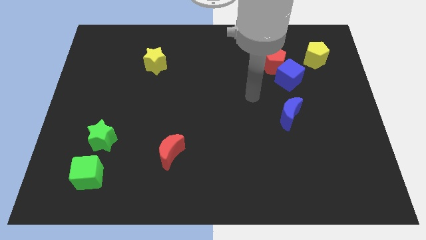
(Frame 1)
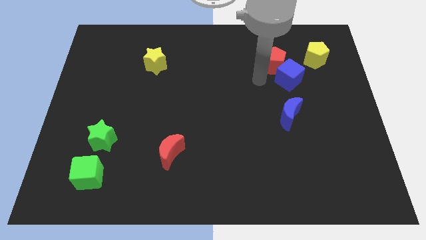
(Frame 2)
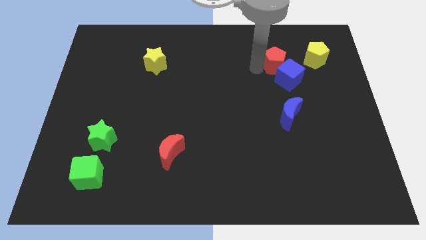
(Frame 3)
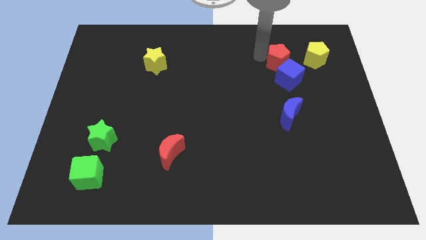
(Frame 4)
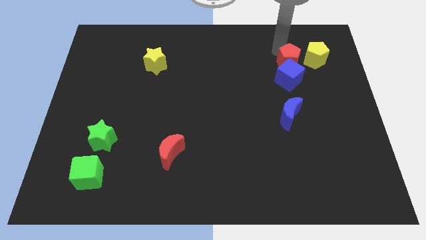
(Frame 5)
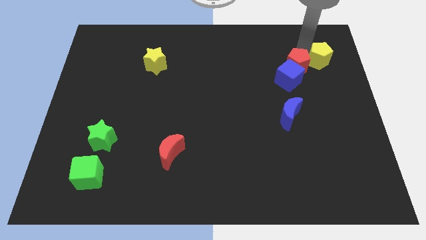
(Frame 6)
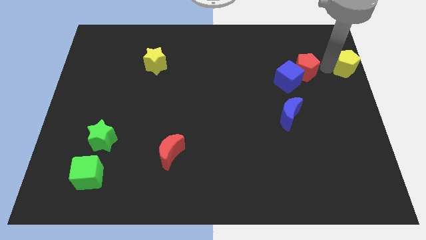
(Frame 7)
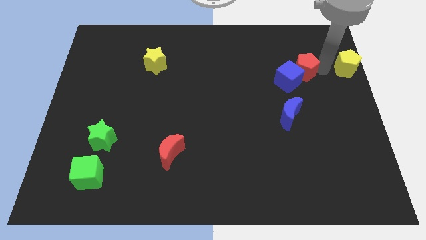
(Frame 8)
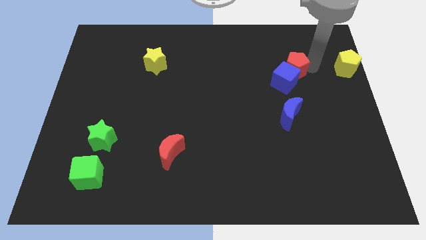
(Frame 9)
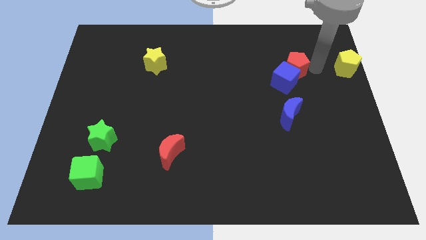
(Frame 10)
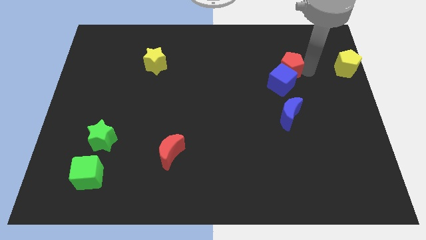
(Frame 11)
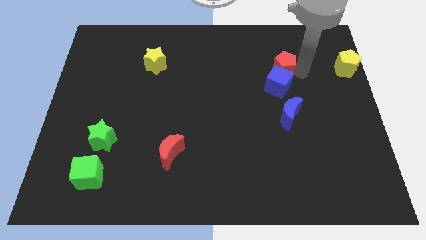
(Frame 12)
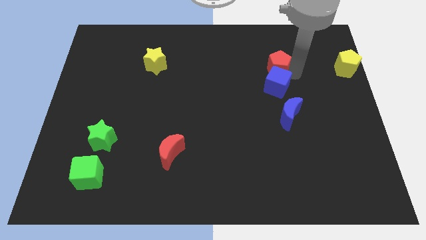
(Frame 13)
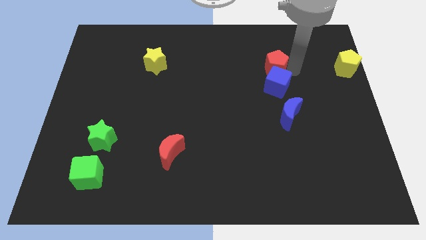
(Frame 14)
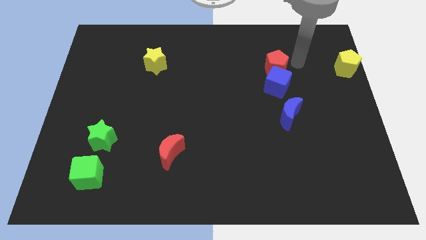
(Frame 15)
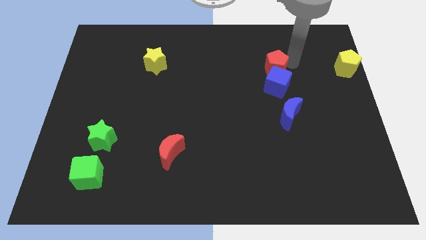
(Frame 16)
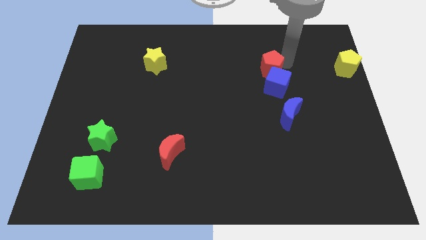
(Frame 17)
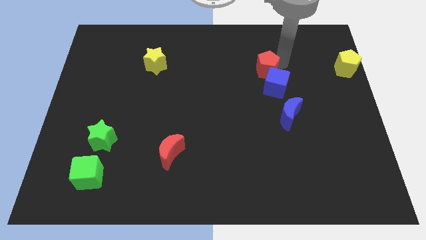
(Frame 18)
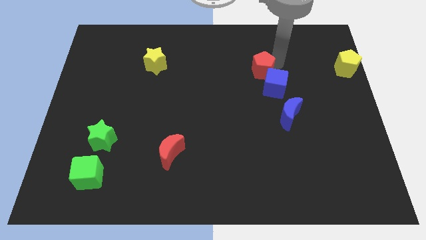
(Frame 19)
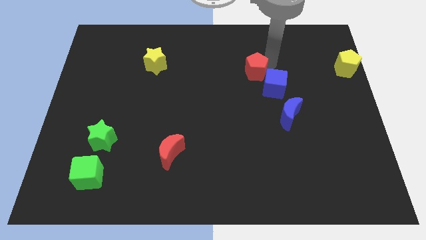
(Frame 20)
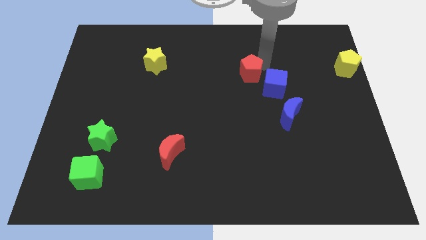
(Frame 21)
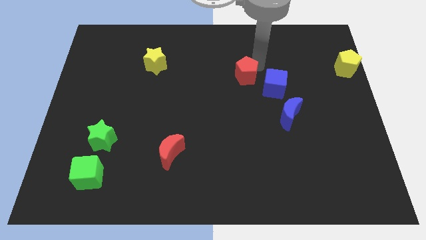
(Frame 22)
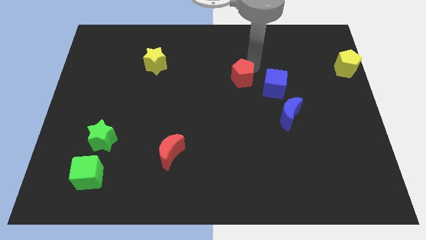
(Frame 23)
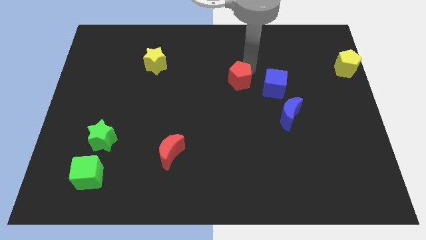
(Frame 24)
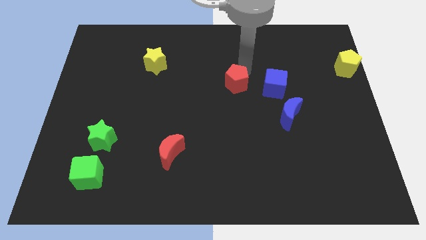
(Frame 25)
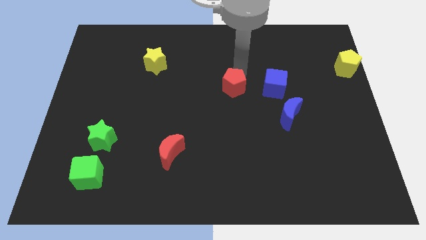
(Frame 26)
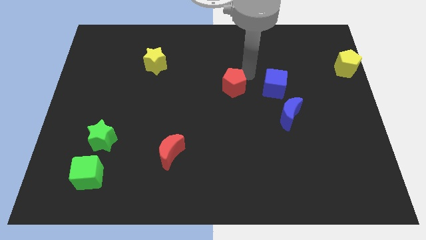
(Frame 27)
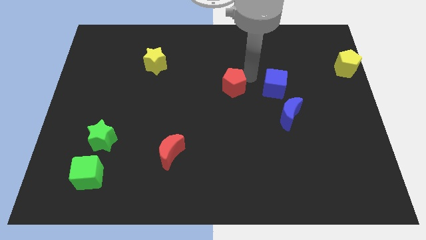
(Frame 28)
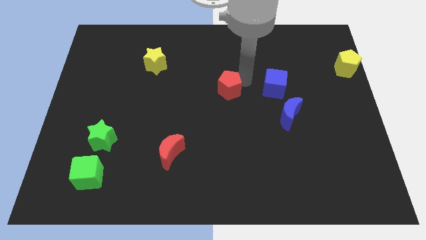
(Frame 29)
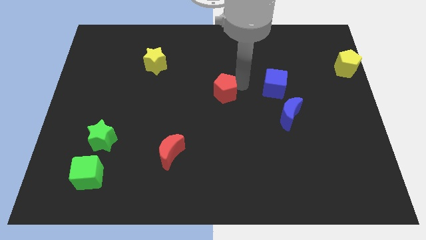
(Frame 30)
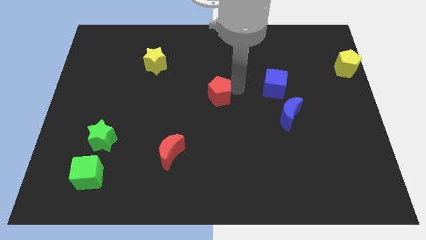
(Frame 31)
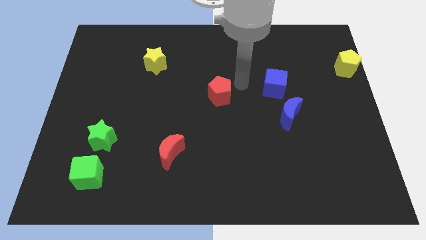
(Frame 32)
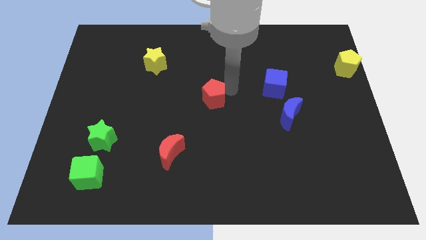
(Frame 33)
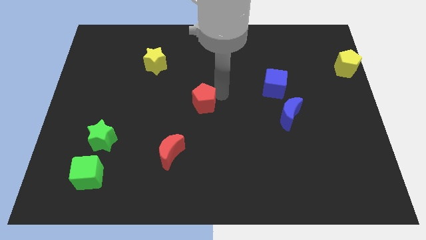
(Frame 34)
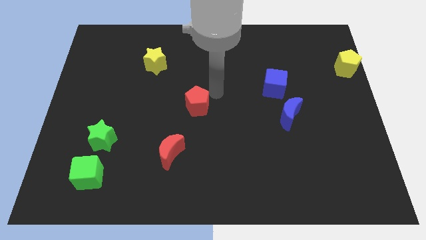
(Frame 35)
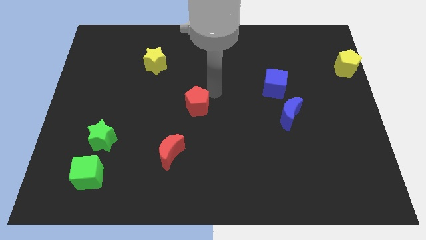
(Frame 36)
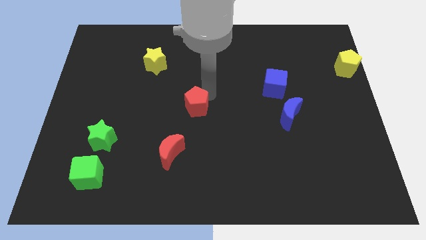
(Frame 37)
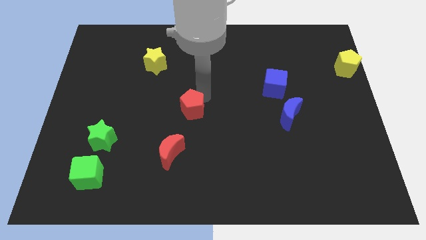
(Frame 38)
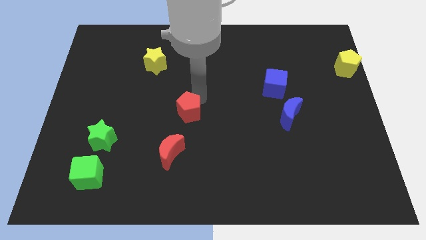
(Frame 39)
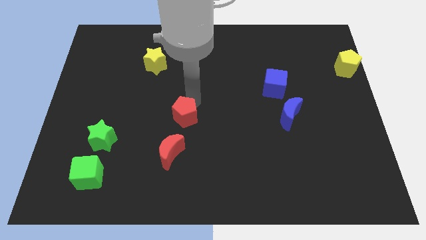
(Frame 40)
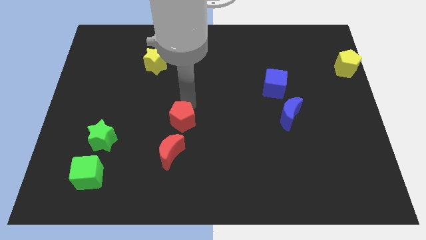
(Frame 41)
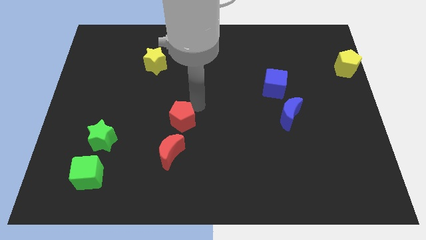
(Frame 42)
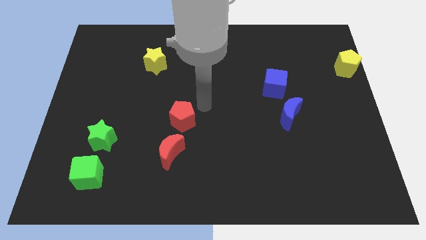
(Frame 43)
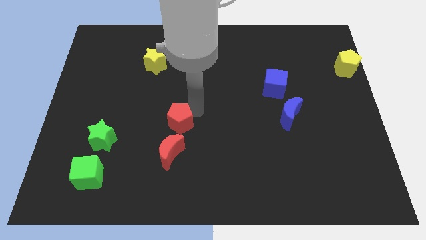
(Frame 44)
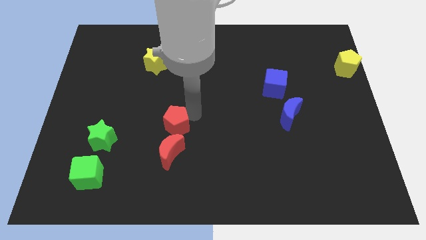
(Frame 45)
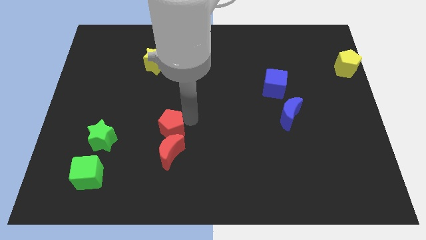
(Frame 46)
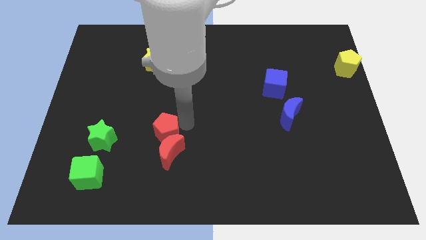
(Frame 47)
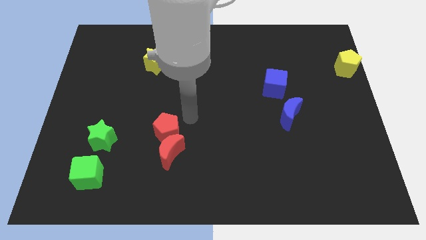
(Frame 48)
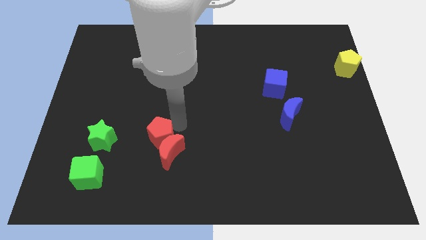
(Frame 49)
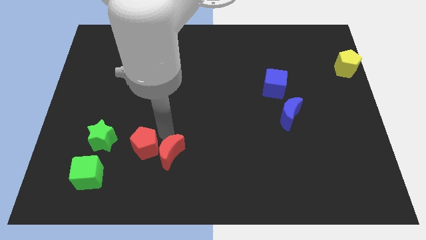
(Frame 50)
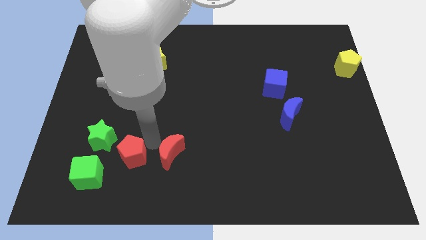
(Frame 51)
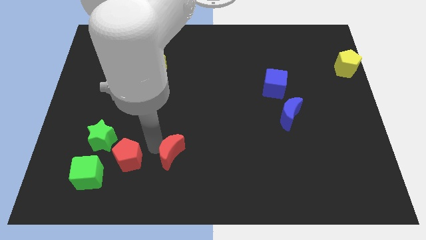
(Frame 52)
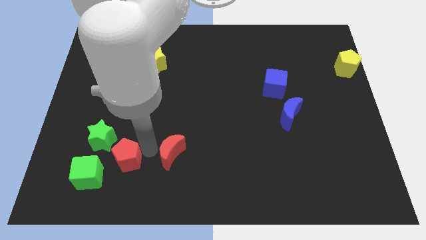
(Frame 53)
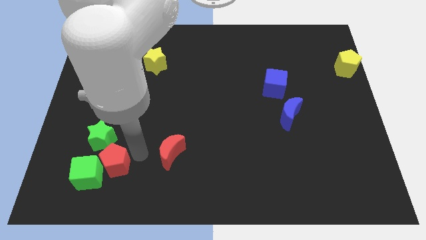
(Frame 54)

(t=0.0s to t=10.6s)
move the red pentagon to the green cube

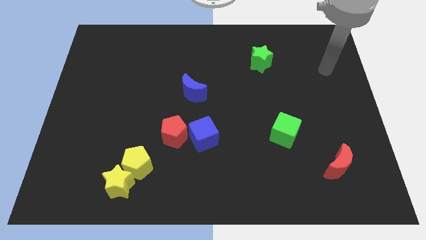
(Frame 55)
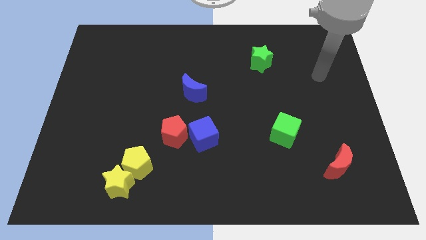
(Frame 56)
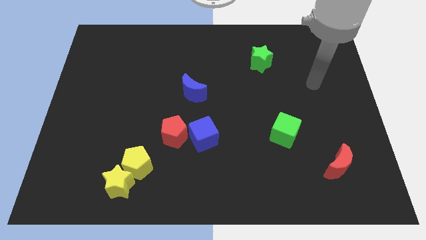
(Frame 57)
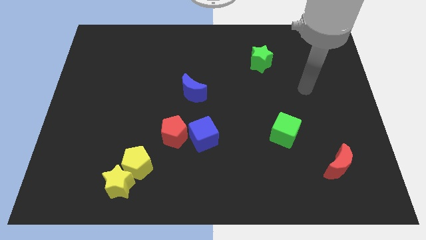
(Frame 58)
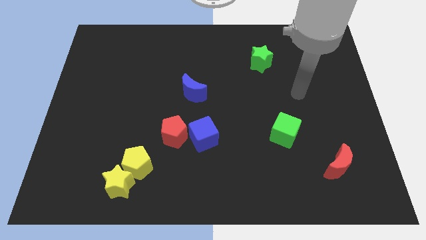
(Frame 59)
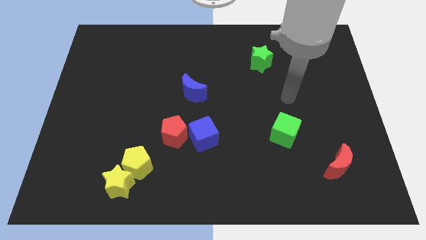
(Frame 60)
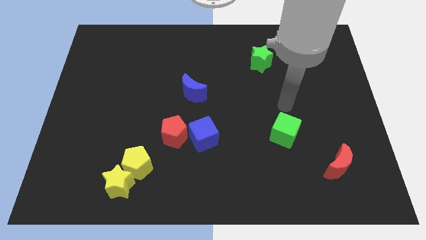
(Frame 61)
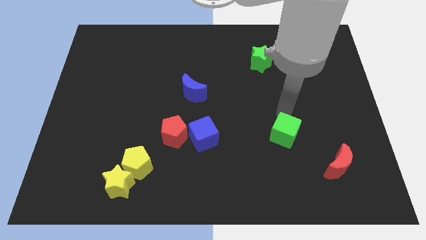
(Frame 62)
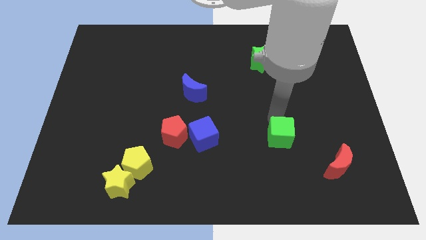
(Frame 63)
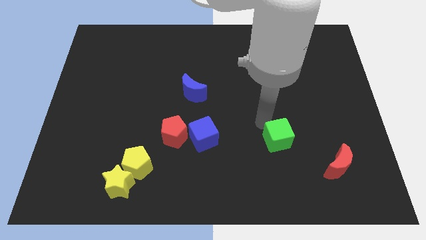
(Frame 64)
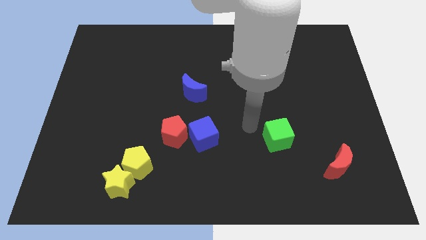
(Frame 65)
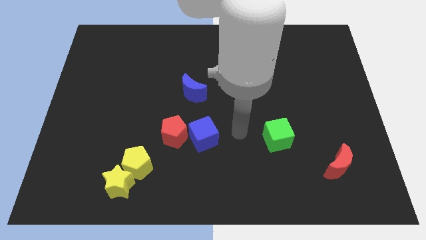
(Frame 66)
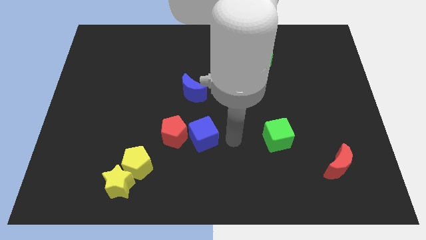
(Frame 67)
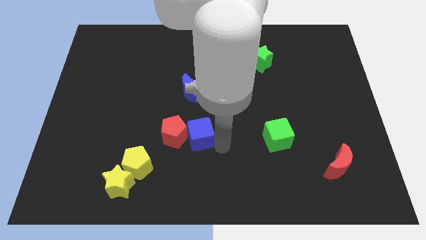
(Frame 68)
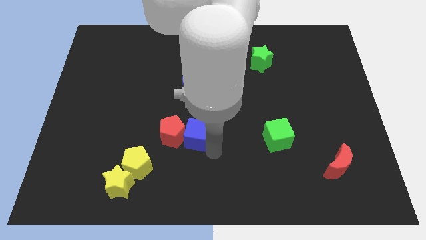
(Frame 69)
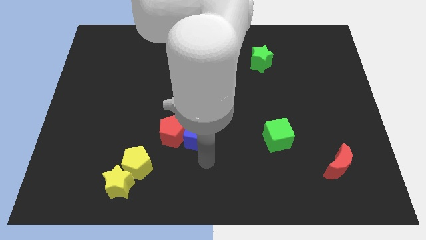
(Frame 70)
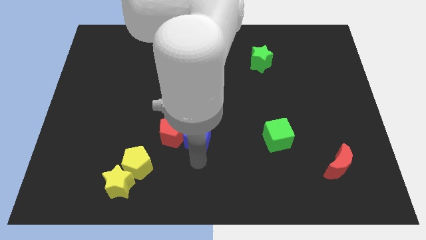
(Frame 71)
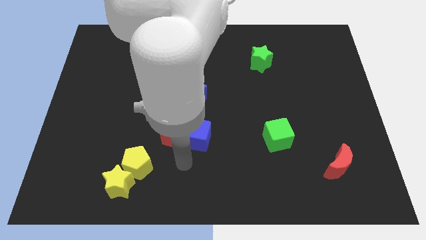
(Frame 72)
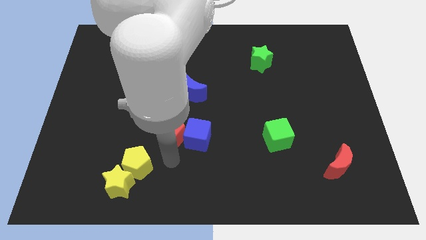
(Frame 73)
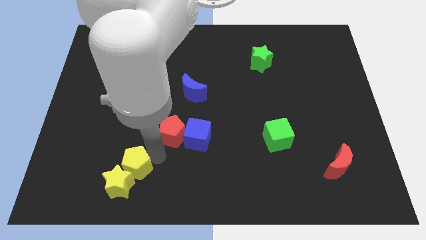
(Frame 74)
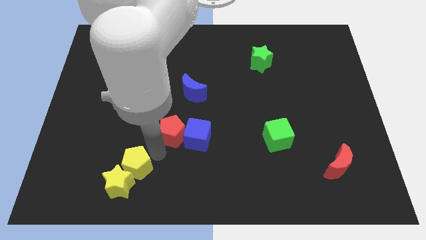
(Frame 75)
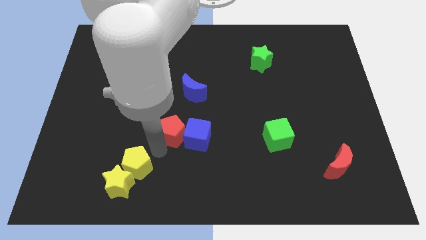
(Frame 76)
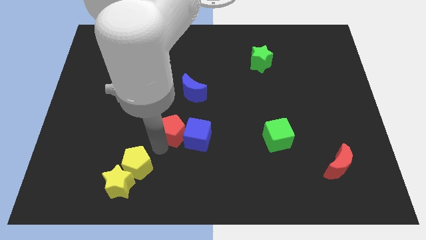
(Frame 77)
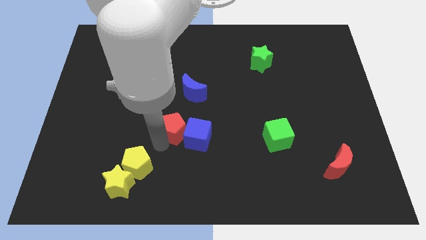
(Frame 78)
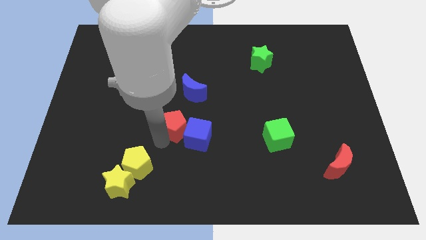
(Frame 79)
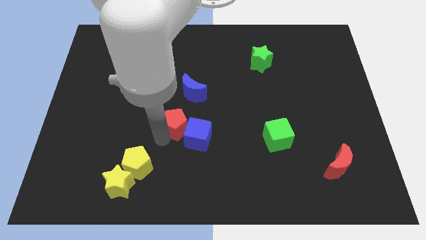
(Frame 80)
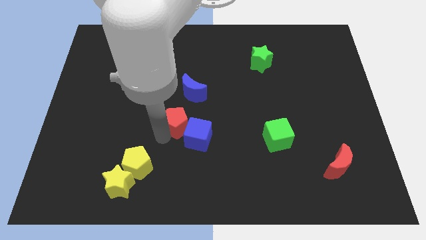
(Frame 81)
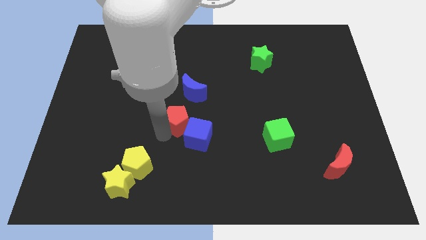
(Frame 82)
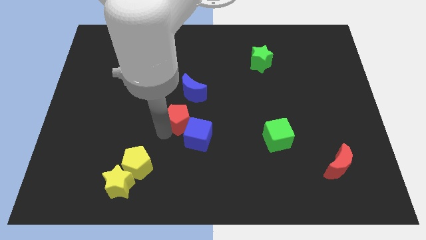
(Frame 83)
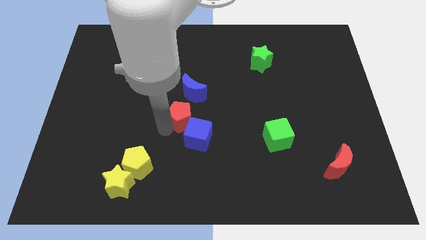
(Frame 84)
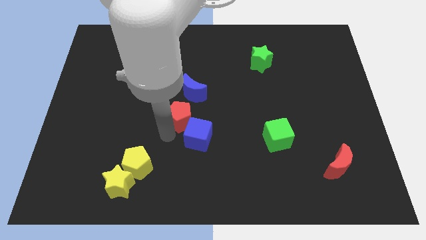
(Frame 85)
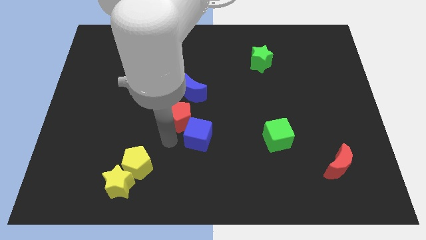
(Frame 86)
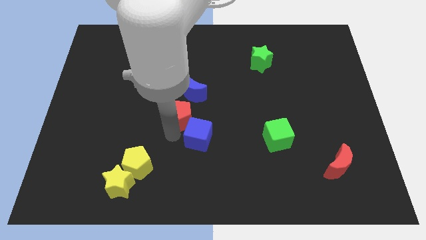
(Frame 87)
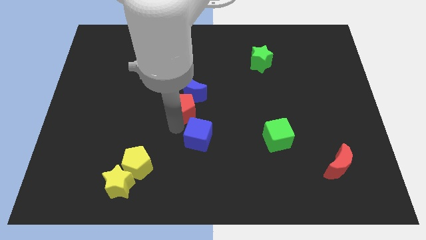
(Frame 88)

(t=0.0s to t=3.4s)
move the red pentagon next to the blue moon
